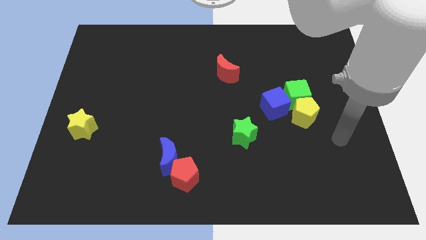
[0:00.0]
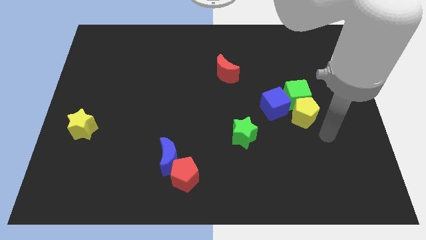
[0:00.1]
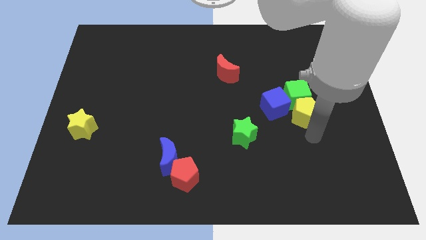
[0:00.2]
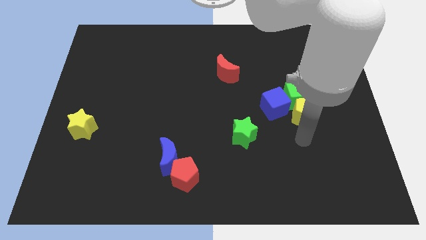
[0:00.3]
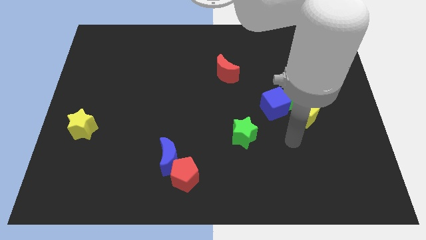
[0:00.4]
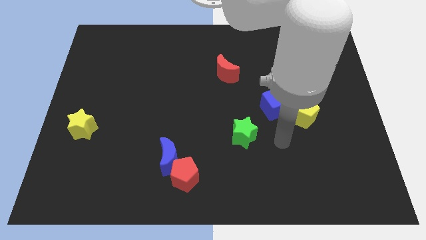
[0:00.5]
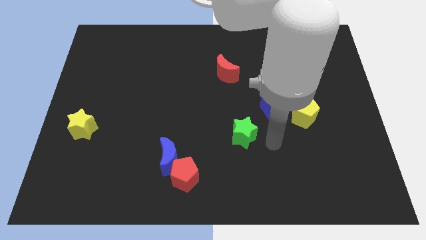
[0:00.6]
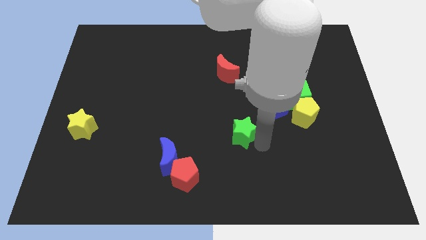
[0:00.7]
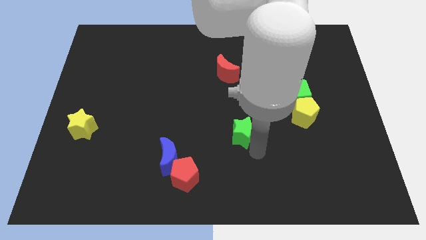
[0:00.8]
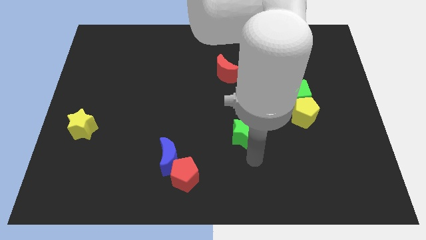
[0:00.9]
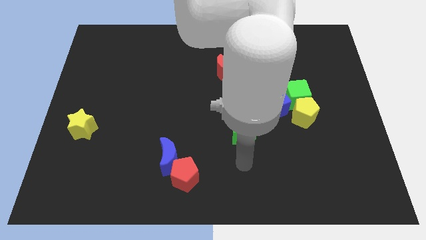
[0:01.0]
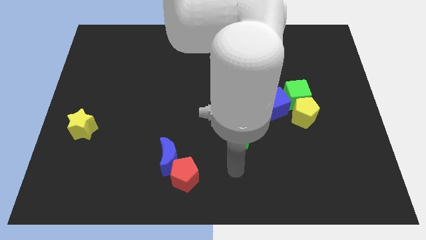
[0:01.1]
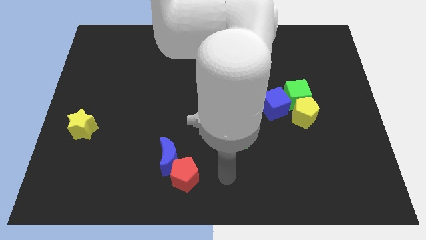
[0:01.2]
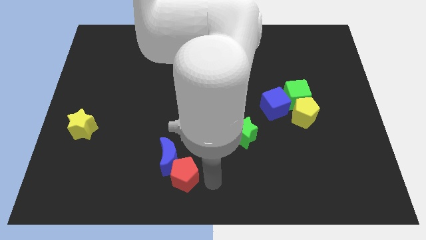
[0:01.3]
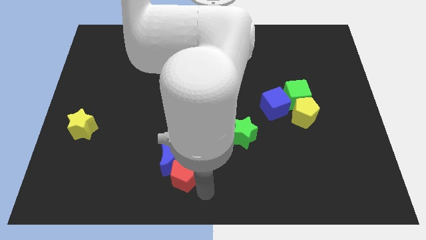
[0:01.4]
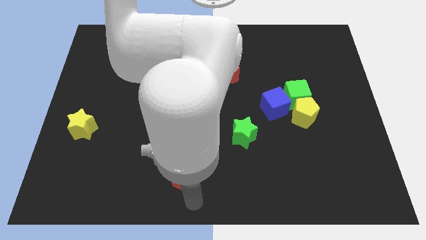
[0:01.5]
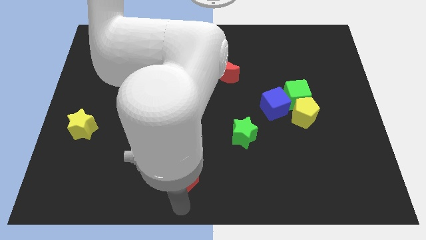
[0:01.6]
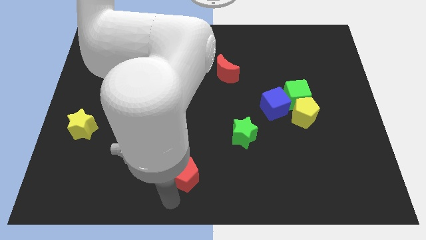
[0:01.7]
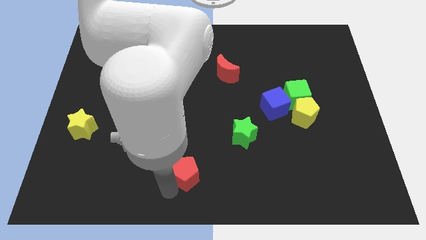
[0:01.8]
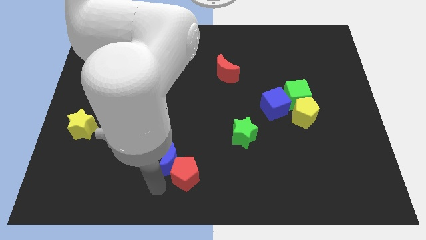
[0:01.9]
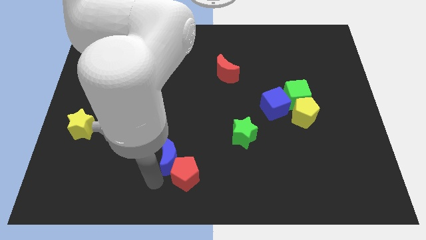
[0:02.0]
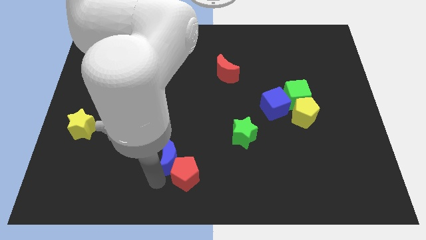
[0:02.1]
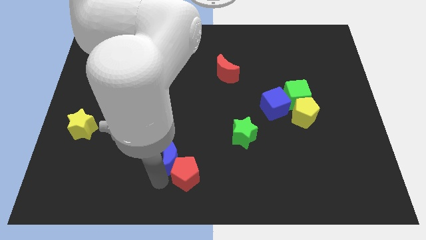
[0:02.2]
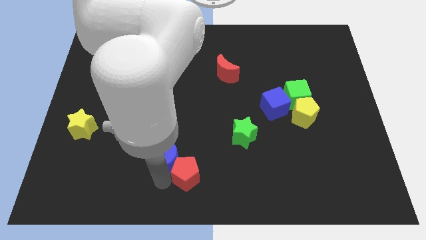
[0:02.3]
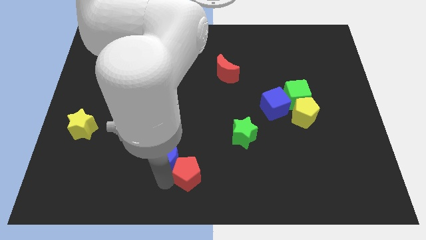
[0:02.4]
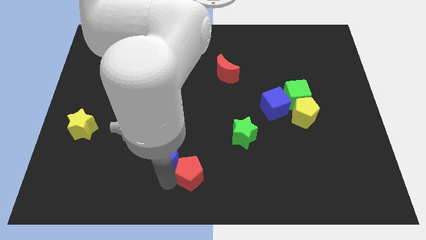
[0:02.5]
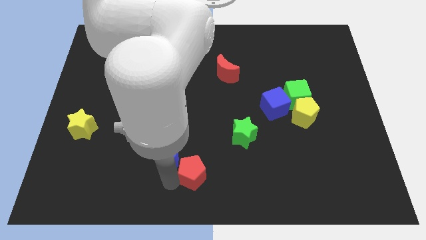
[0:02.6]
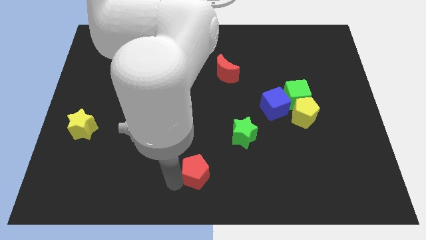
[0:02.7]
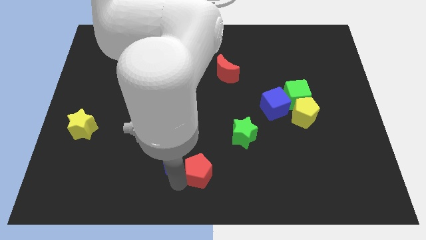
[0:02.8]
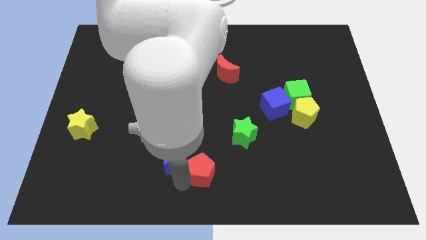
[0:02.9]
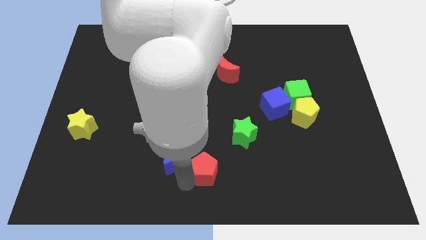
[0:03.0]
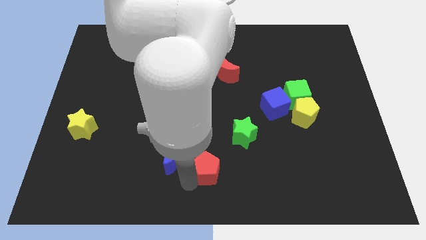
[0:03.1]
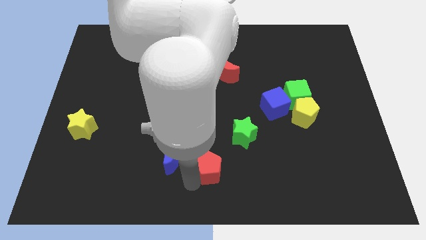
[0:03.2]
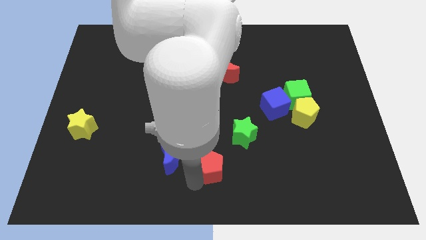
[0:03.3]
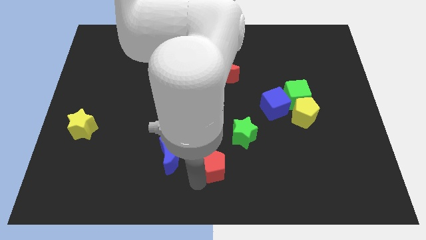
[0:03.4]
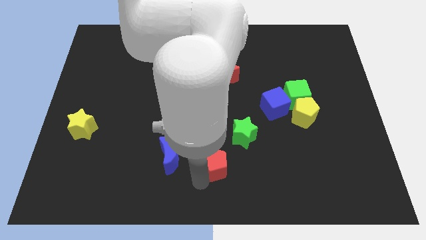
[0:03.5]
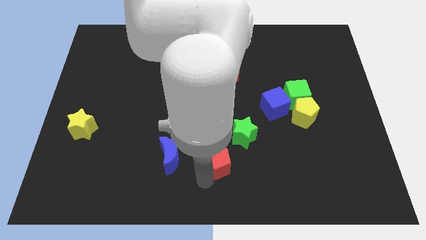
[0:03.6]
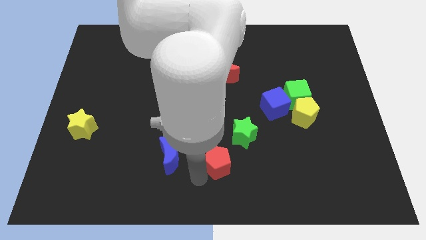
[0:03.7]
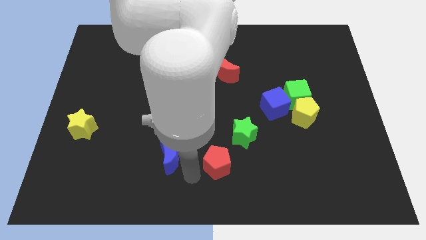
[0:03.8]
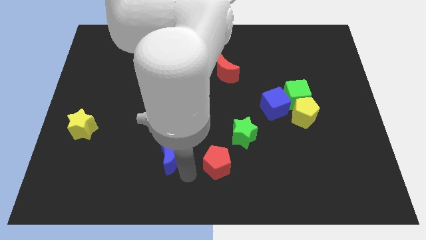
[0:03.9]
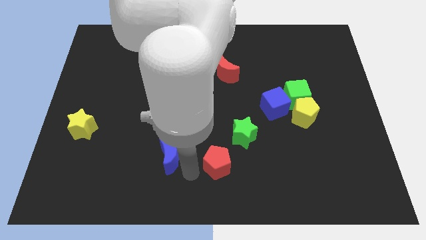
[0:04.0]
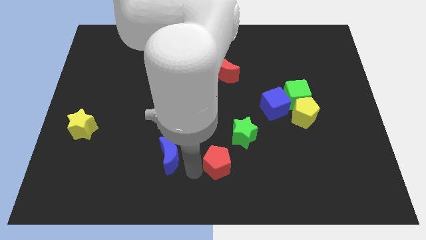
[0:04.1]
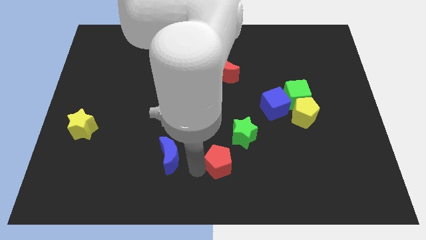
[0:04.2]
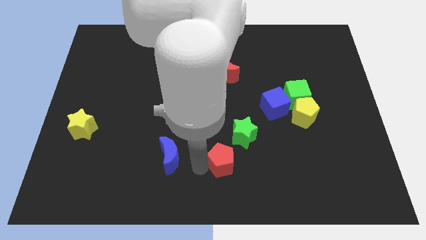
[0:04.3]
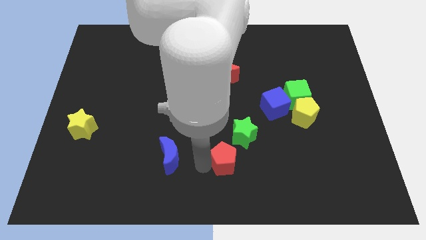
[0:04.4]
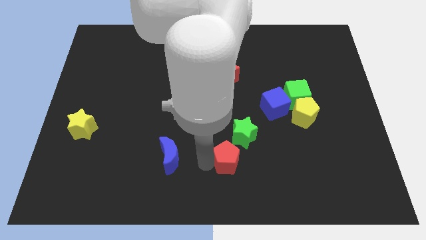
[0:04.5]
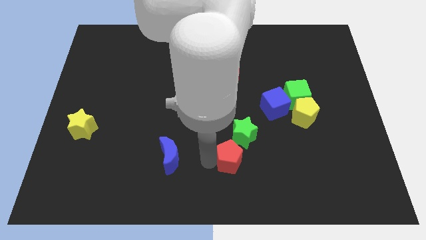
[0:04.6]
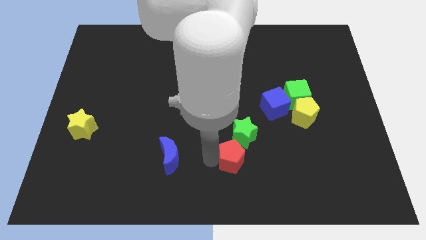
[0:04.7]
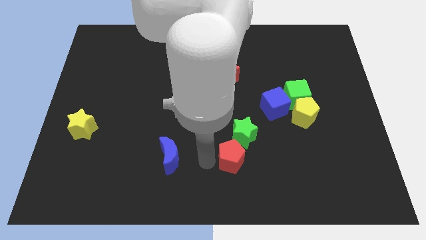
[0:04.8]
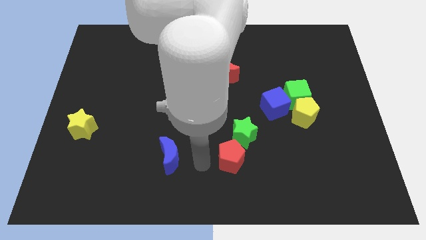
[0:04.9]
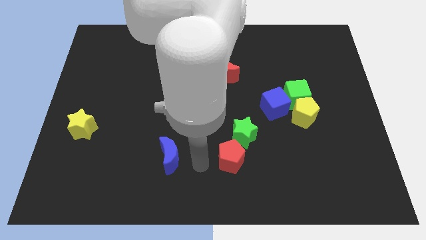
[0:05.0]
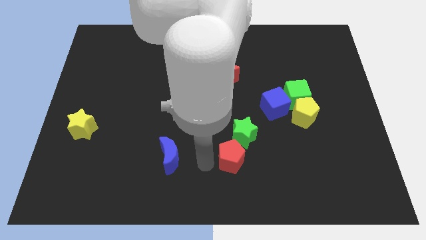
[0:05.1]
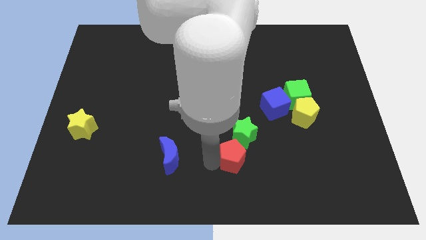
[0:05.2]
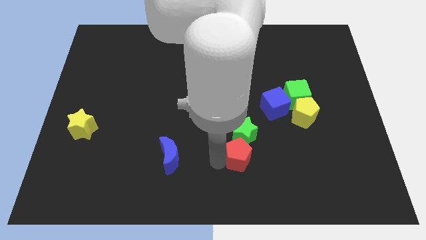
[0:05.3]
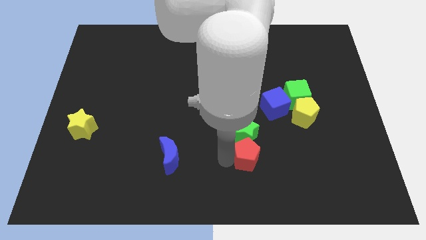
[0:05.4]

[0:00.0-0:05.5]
slide the red pentagon to the bottom right of the green star

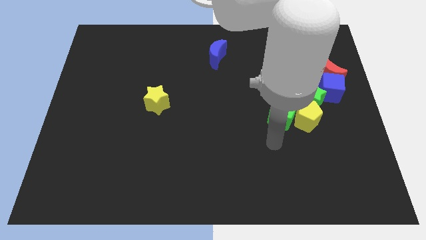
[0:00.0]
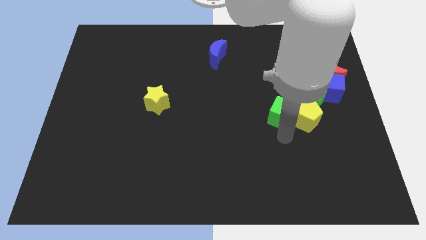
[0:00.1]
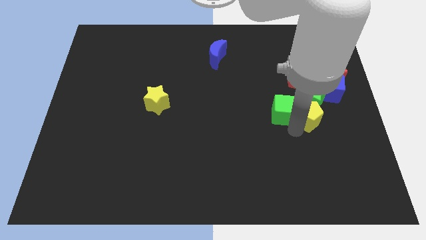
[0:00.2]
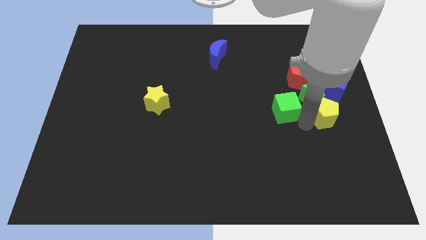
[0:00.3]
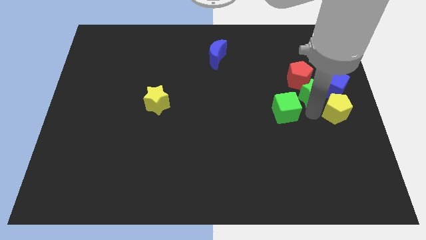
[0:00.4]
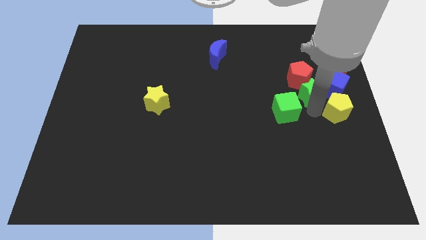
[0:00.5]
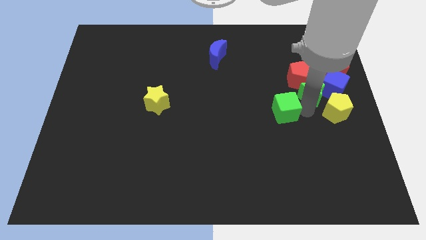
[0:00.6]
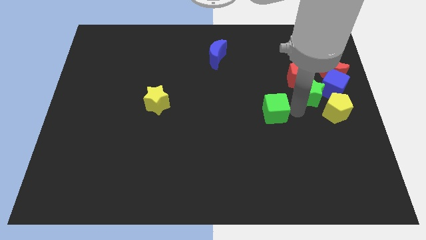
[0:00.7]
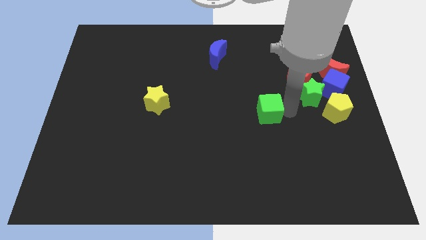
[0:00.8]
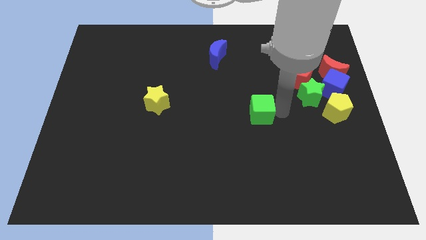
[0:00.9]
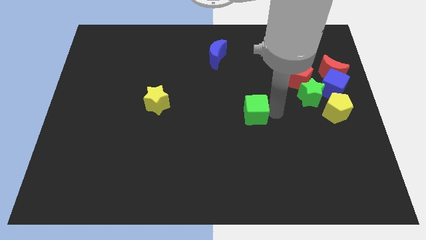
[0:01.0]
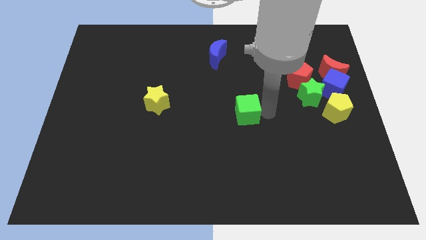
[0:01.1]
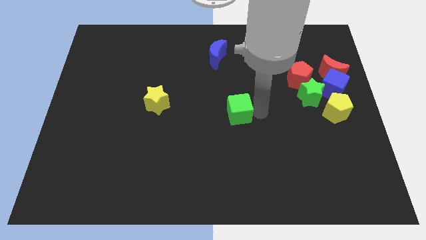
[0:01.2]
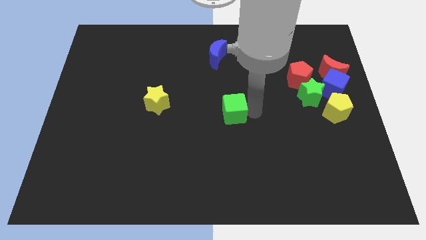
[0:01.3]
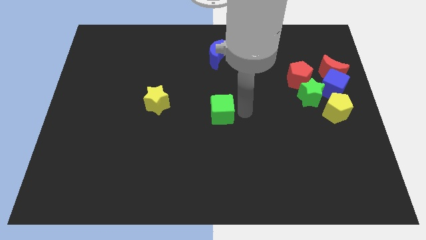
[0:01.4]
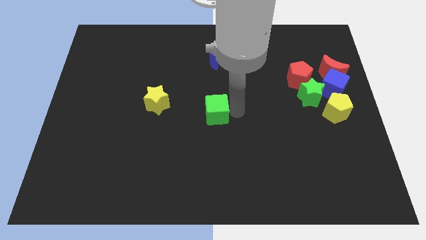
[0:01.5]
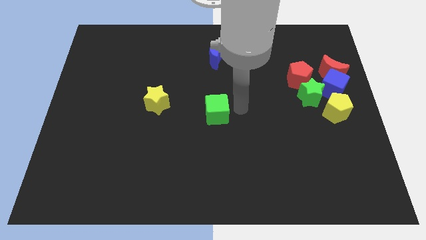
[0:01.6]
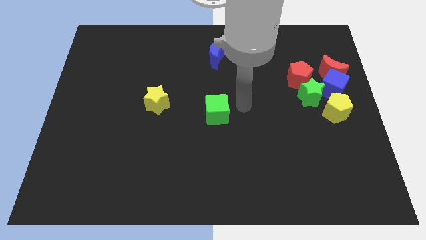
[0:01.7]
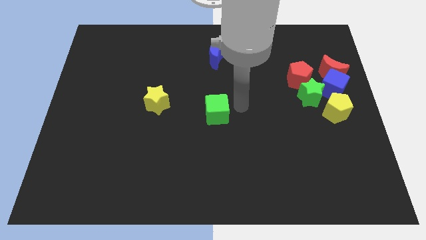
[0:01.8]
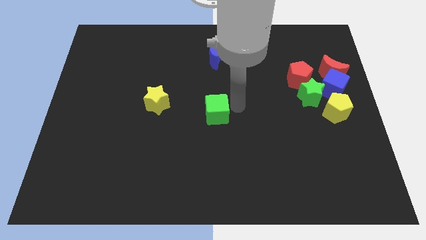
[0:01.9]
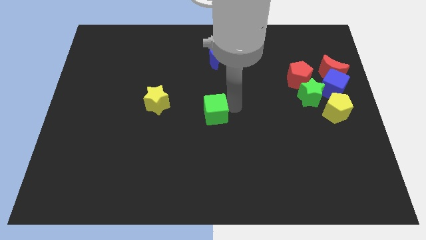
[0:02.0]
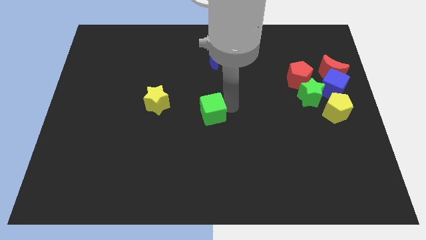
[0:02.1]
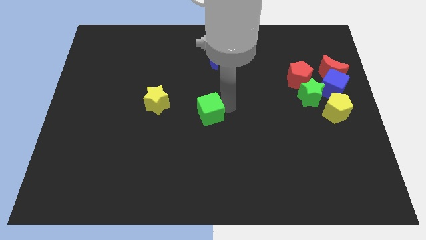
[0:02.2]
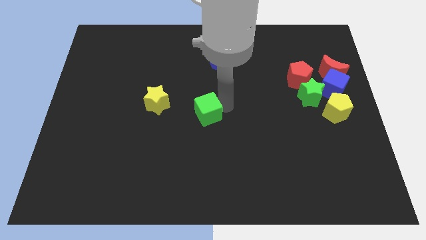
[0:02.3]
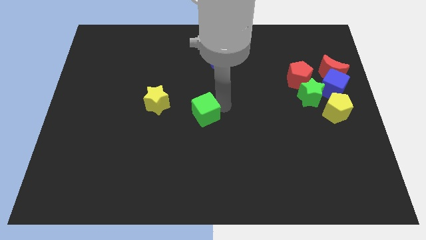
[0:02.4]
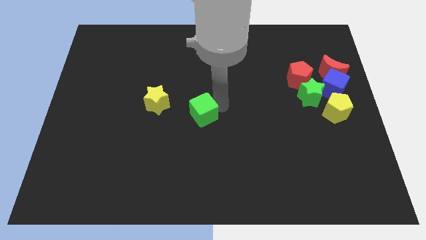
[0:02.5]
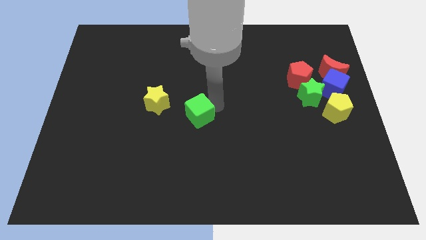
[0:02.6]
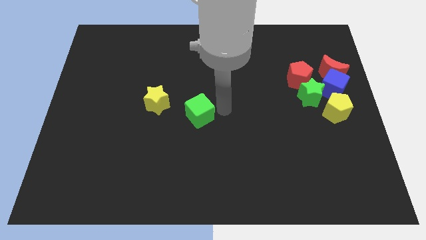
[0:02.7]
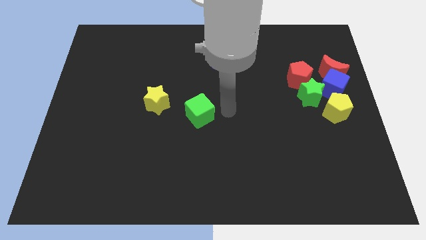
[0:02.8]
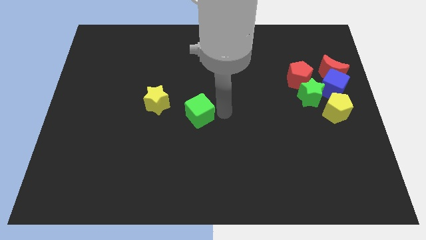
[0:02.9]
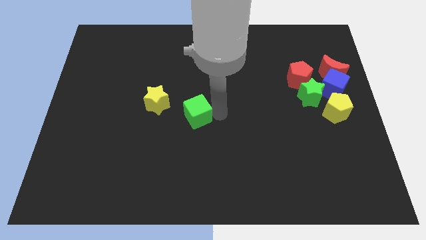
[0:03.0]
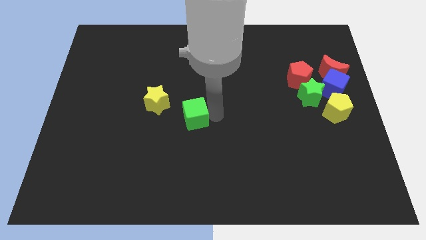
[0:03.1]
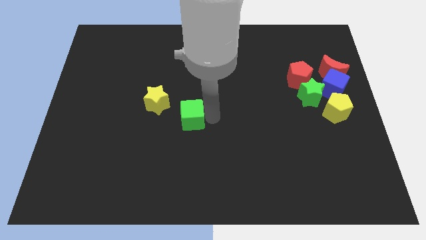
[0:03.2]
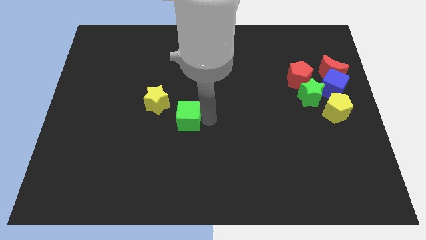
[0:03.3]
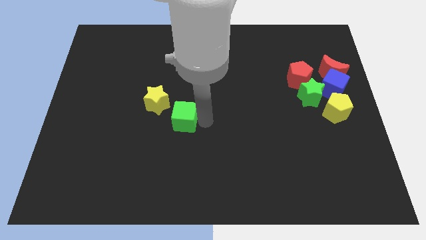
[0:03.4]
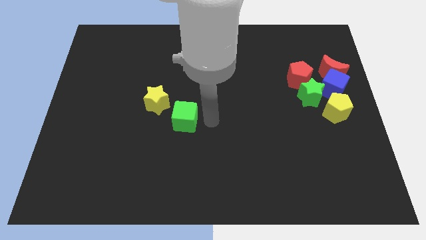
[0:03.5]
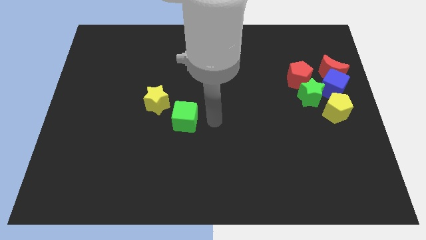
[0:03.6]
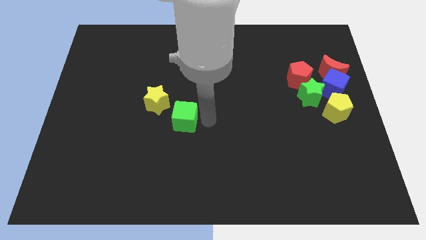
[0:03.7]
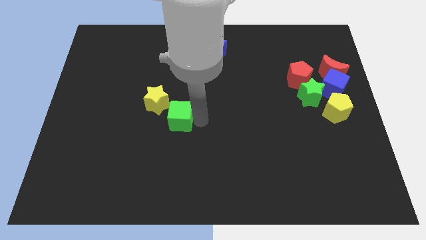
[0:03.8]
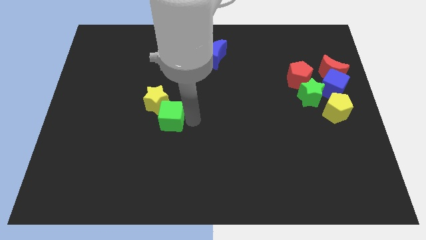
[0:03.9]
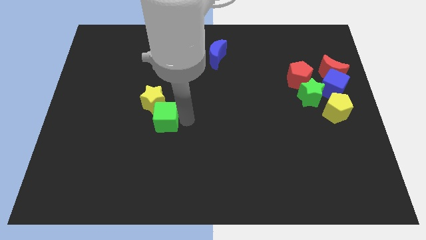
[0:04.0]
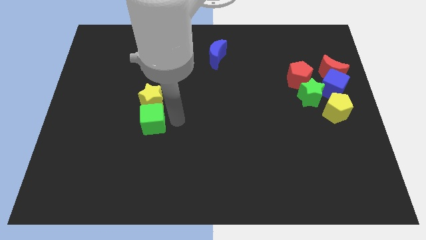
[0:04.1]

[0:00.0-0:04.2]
push the green cube diagonally down and to the left of the yellow star
